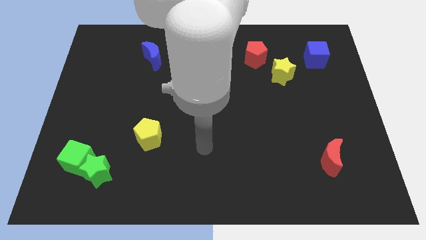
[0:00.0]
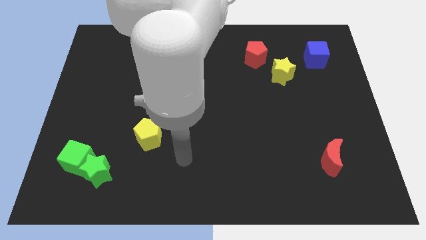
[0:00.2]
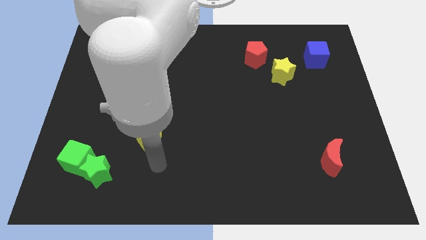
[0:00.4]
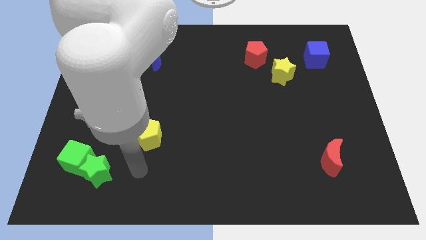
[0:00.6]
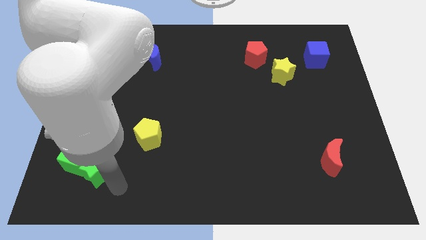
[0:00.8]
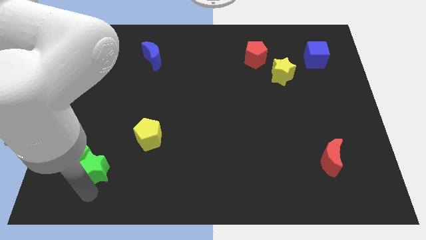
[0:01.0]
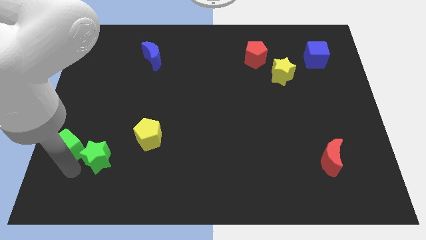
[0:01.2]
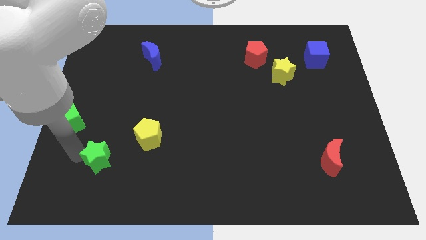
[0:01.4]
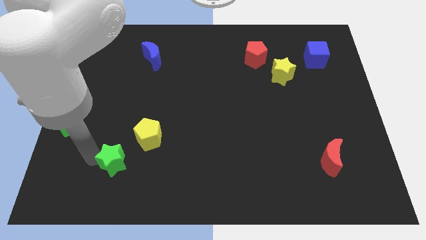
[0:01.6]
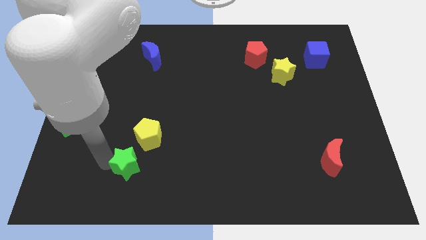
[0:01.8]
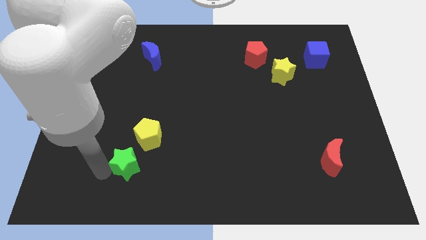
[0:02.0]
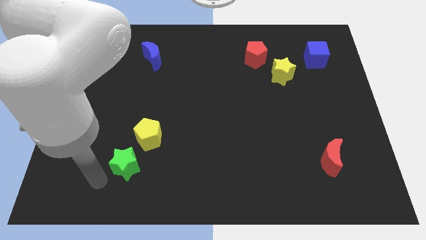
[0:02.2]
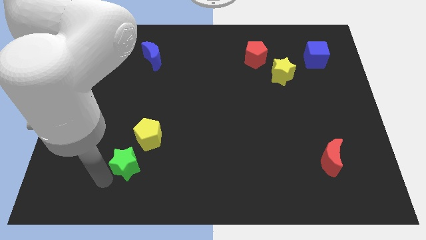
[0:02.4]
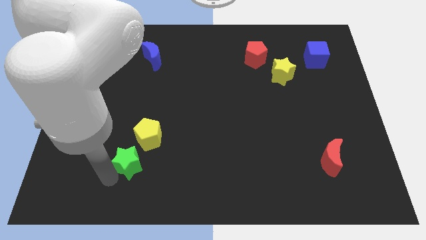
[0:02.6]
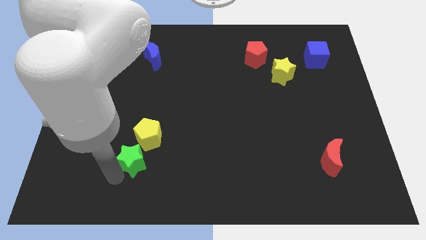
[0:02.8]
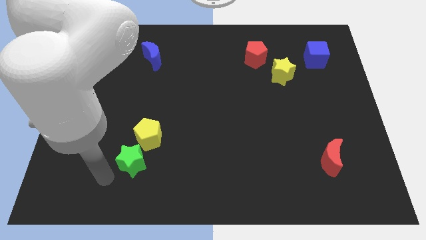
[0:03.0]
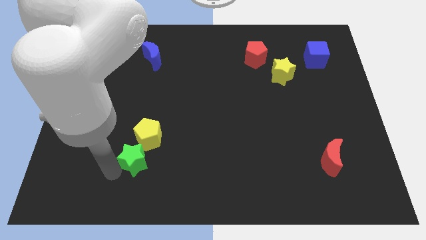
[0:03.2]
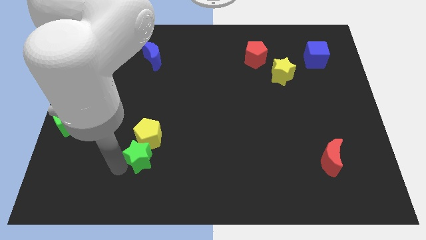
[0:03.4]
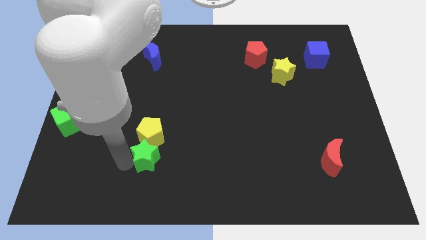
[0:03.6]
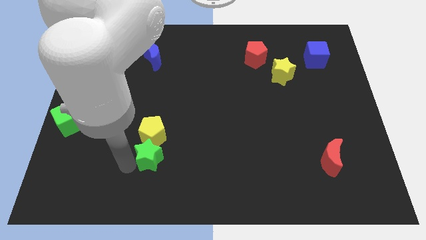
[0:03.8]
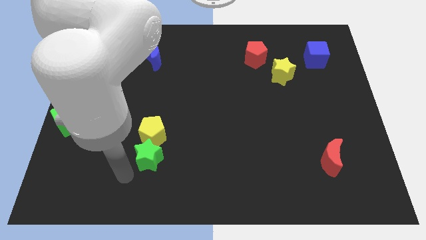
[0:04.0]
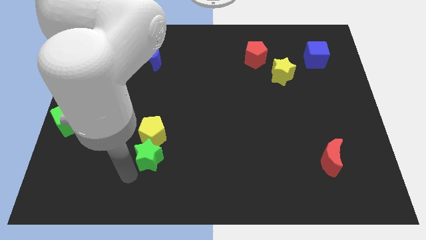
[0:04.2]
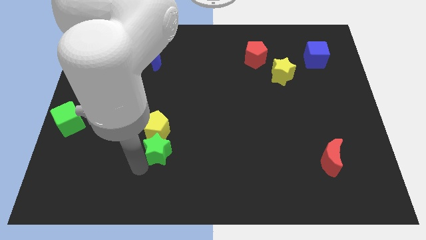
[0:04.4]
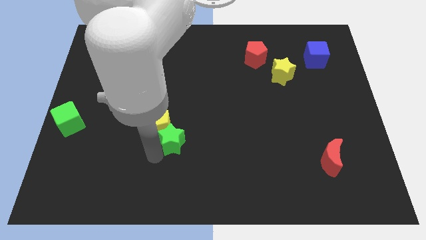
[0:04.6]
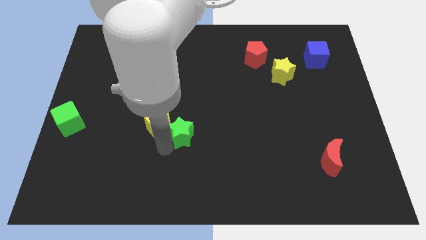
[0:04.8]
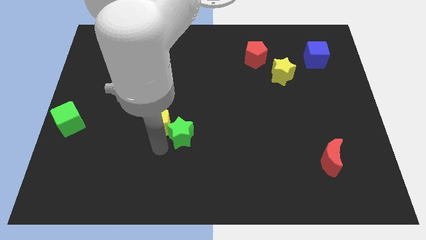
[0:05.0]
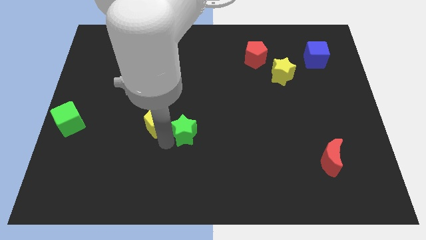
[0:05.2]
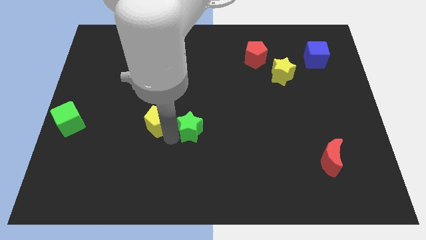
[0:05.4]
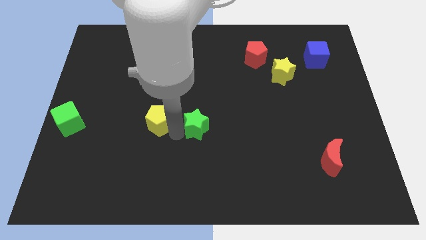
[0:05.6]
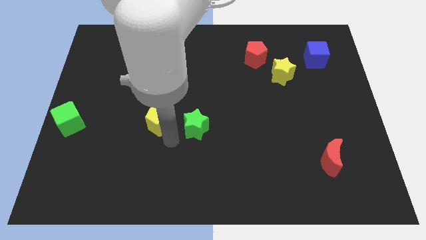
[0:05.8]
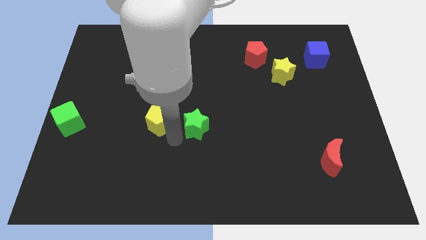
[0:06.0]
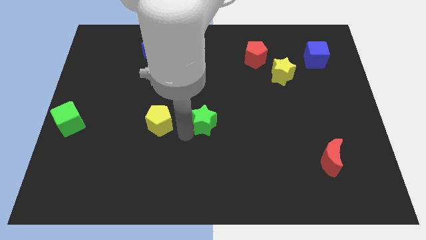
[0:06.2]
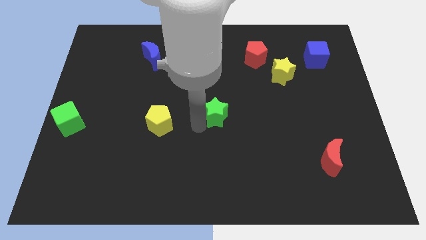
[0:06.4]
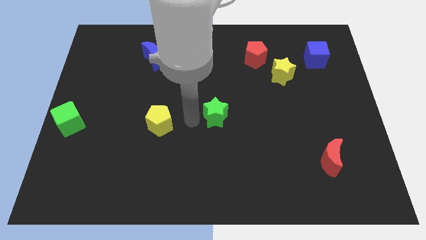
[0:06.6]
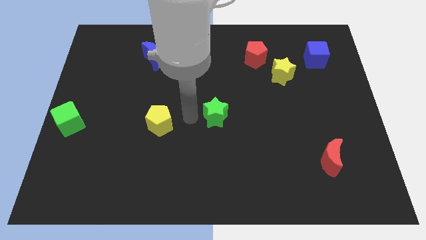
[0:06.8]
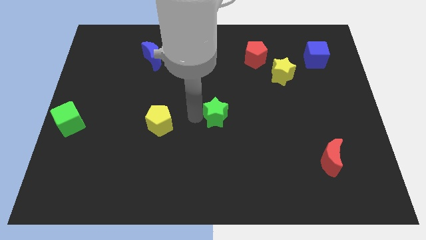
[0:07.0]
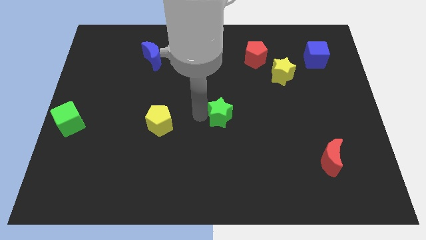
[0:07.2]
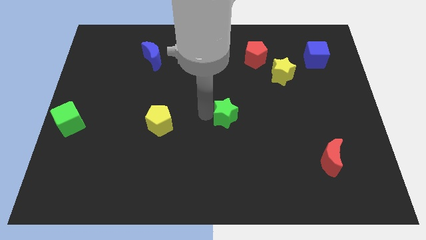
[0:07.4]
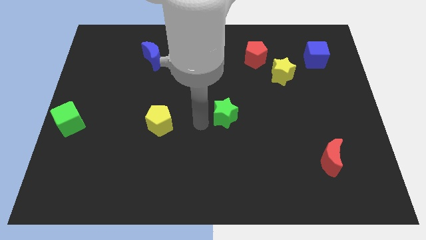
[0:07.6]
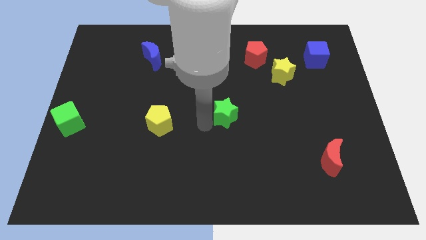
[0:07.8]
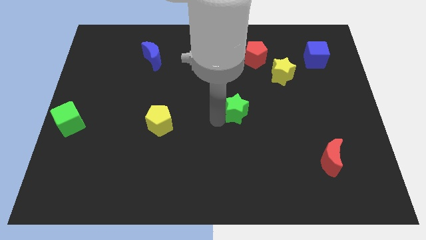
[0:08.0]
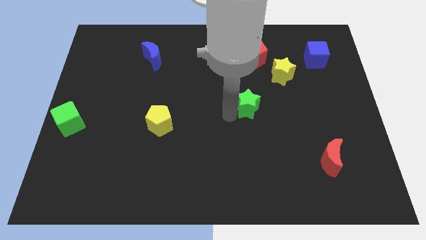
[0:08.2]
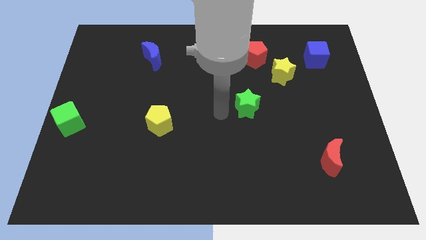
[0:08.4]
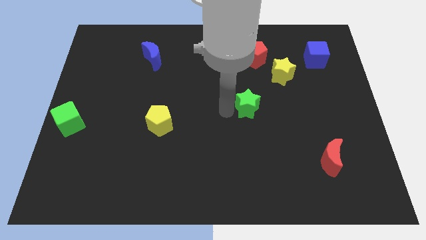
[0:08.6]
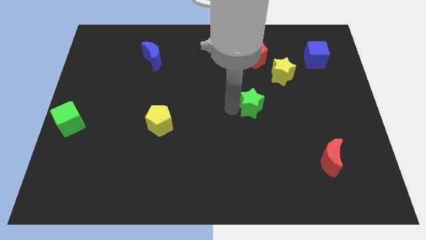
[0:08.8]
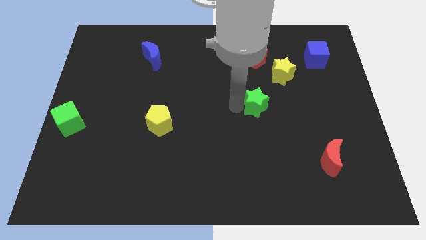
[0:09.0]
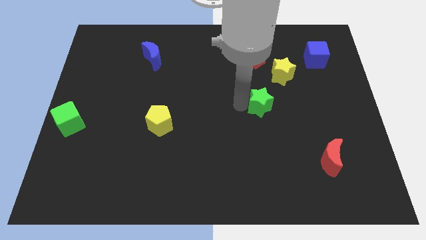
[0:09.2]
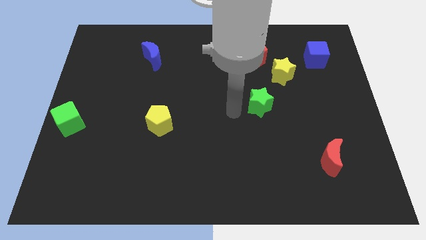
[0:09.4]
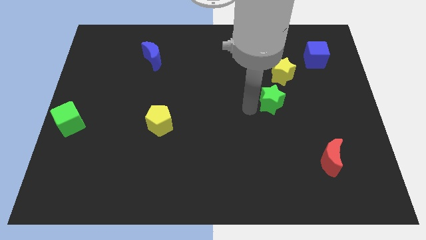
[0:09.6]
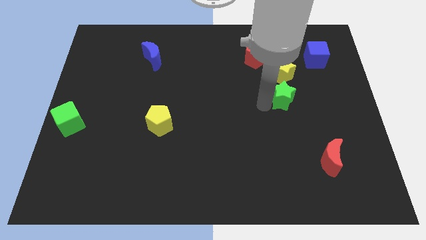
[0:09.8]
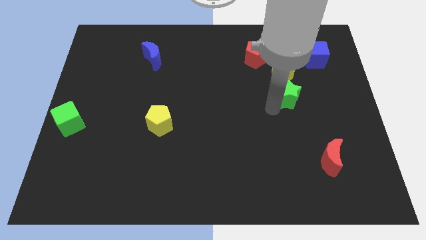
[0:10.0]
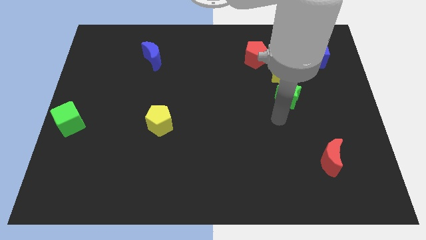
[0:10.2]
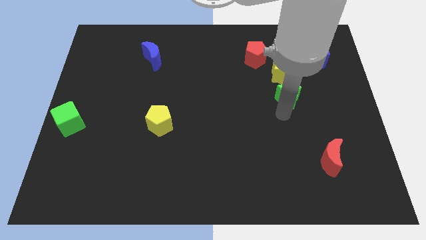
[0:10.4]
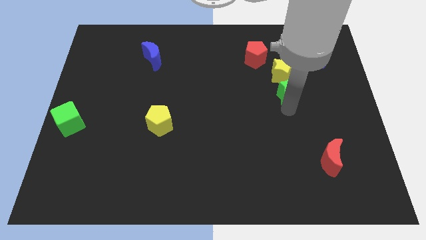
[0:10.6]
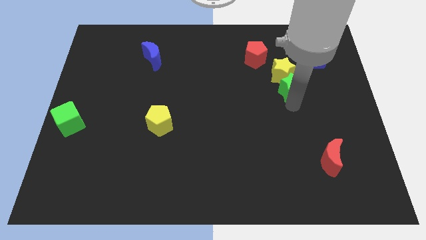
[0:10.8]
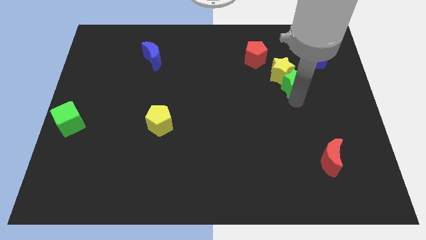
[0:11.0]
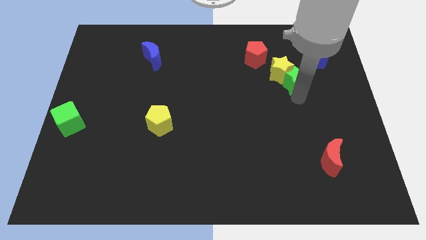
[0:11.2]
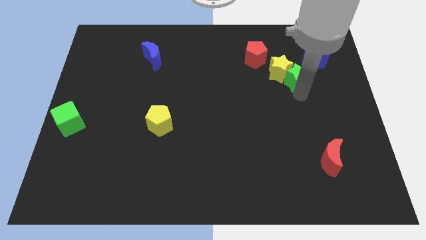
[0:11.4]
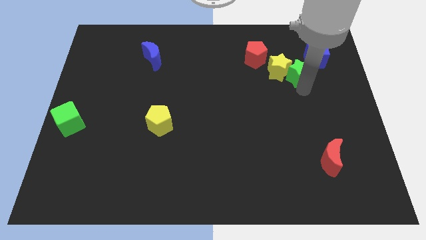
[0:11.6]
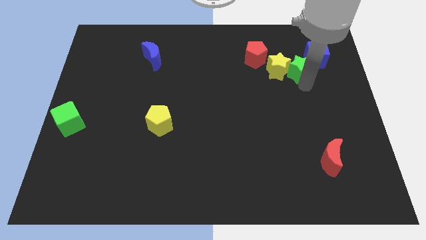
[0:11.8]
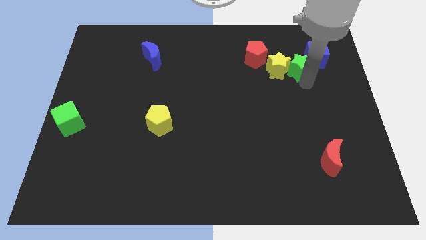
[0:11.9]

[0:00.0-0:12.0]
move the green star just right of the red pentagon
